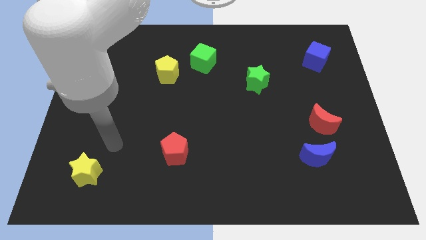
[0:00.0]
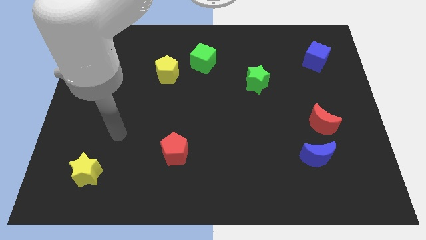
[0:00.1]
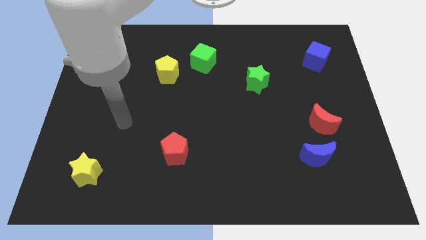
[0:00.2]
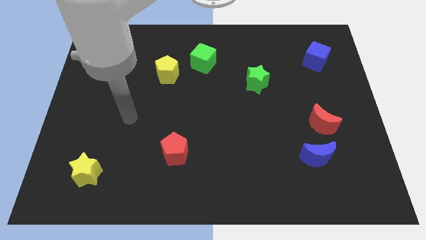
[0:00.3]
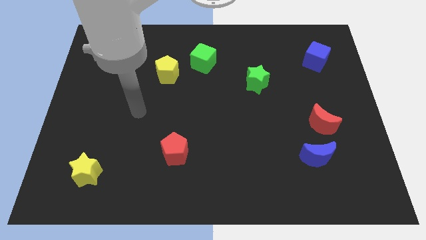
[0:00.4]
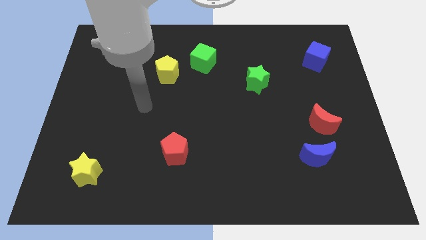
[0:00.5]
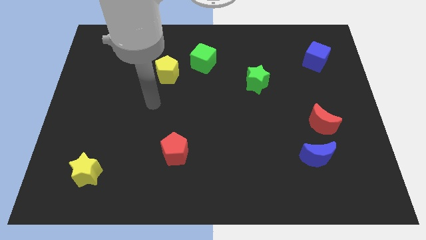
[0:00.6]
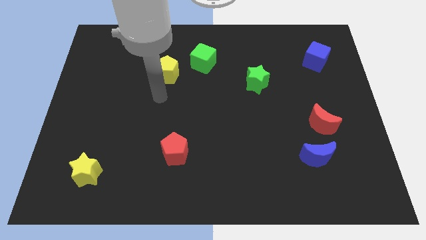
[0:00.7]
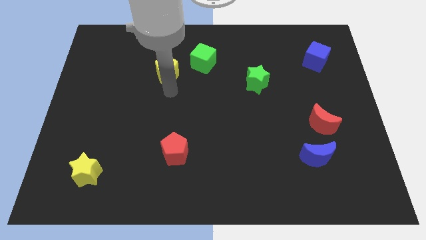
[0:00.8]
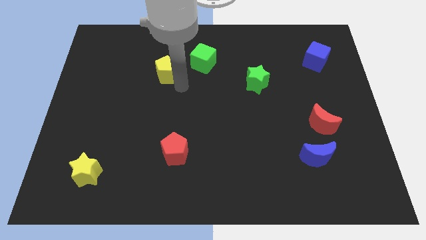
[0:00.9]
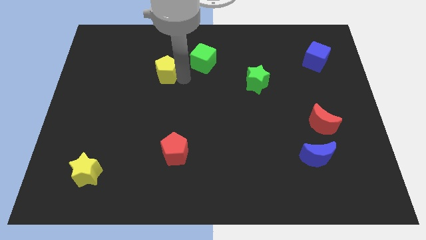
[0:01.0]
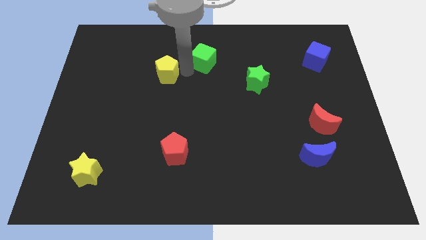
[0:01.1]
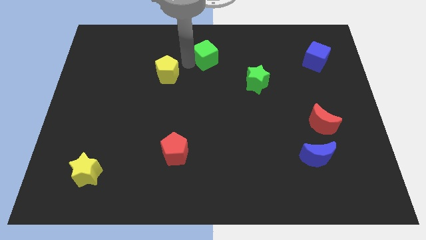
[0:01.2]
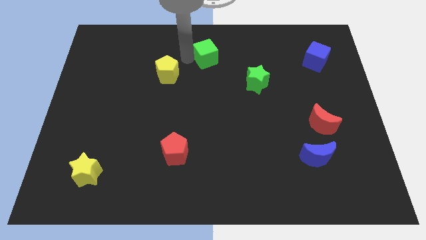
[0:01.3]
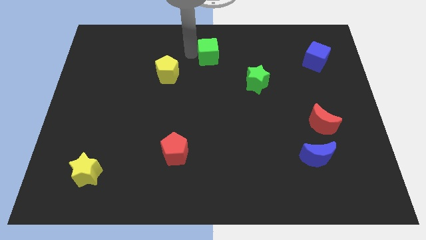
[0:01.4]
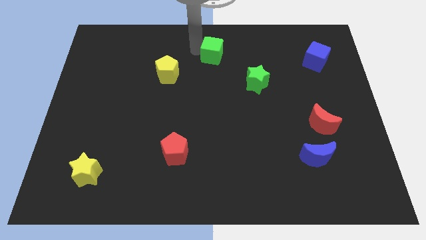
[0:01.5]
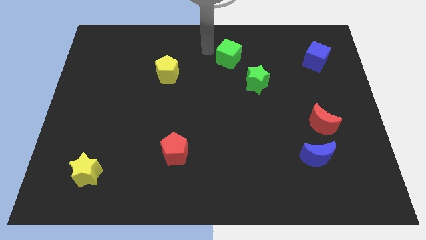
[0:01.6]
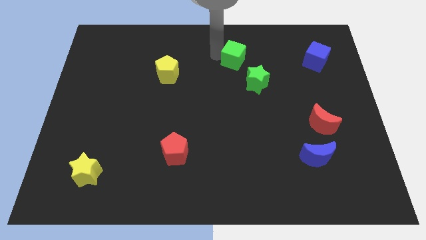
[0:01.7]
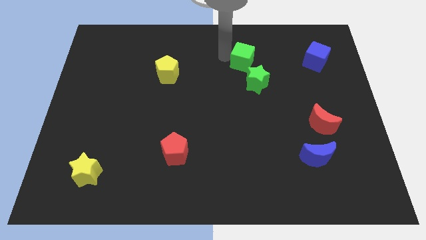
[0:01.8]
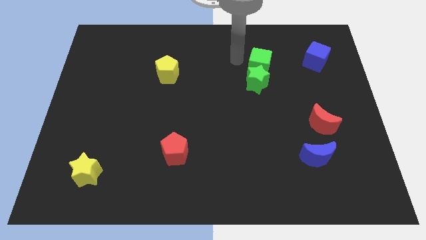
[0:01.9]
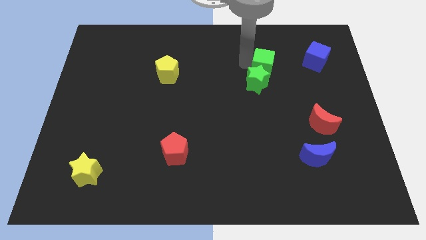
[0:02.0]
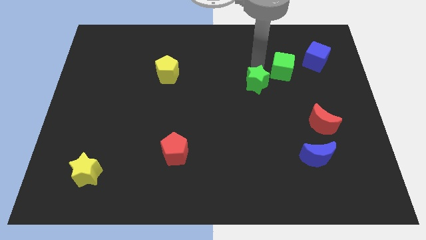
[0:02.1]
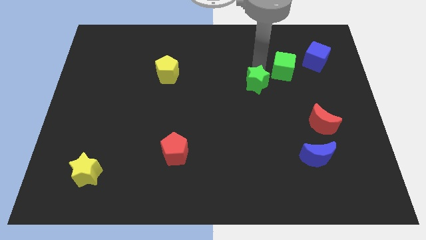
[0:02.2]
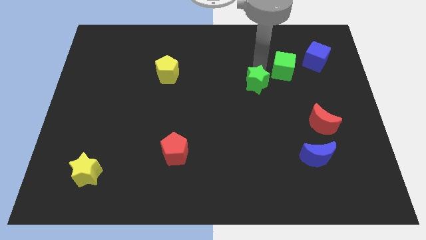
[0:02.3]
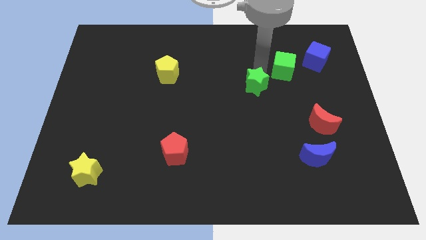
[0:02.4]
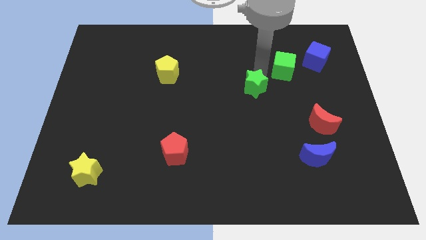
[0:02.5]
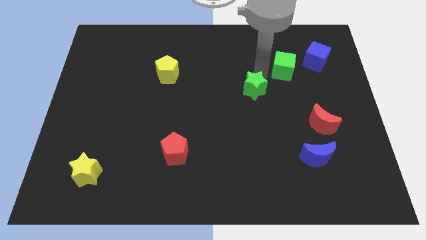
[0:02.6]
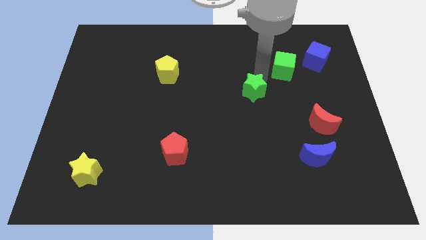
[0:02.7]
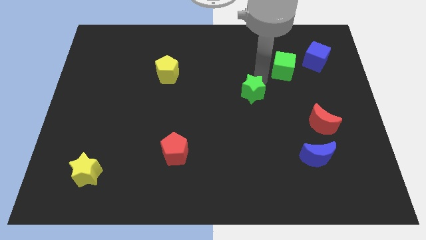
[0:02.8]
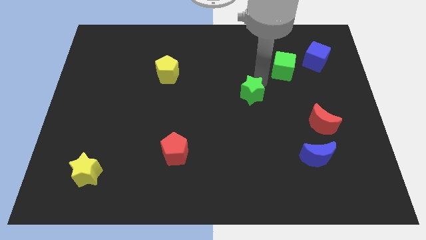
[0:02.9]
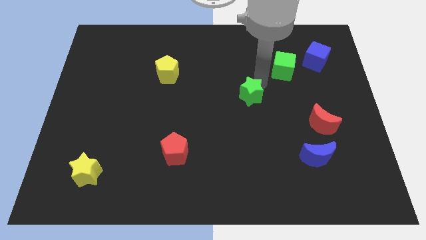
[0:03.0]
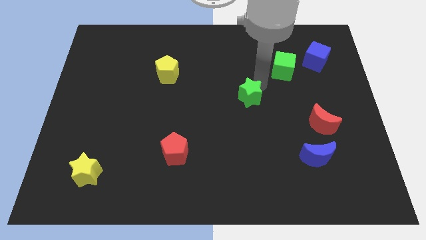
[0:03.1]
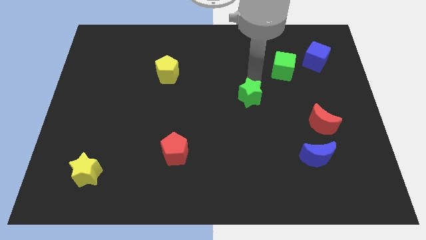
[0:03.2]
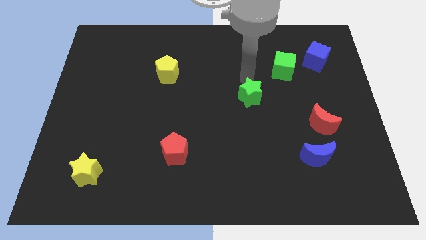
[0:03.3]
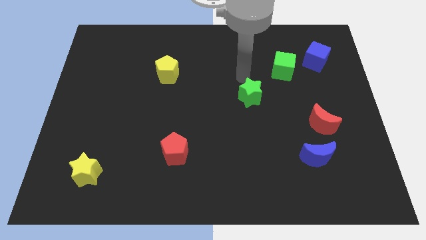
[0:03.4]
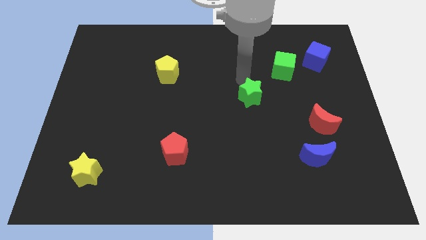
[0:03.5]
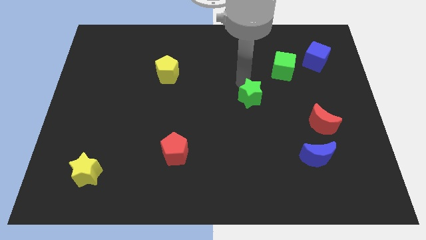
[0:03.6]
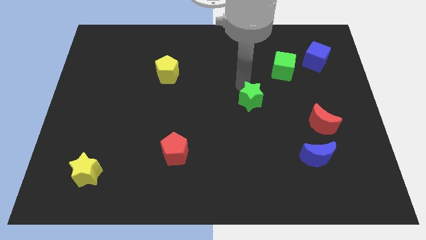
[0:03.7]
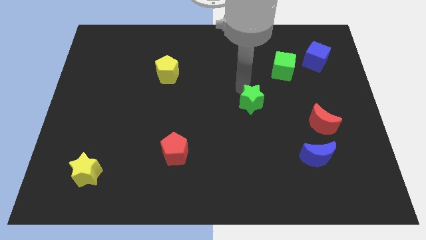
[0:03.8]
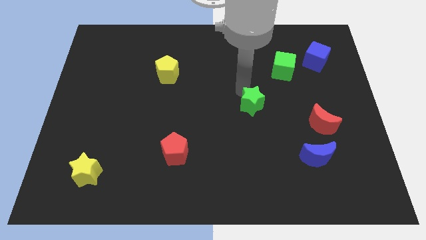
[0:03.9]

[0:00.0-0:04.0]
push the green star a little bit down

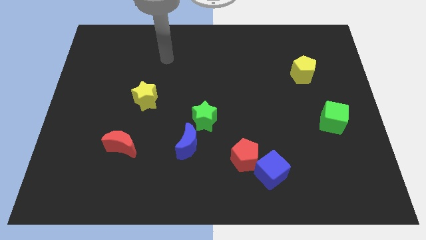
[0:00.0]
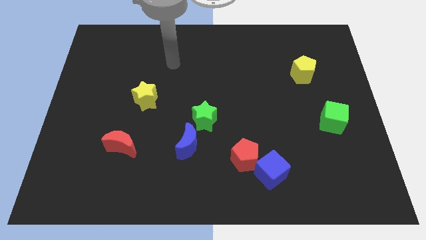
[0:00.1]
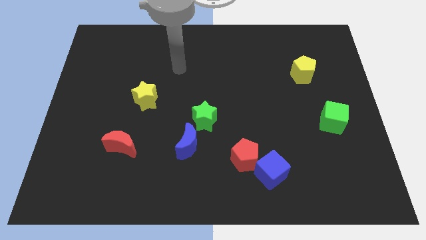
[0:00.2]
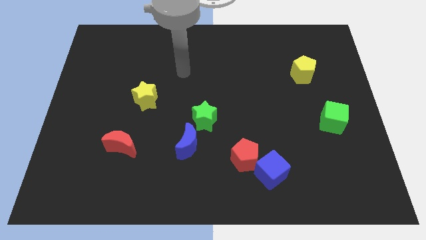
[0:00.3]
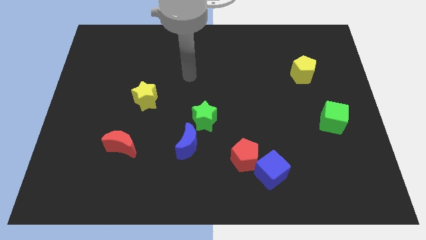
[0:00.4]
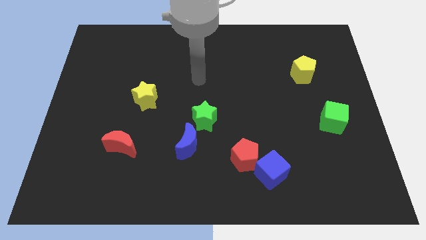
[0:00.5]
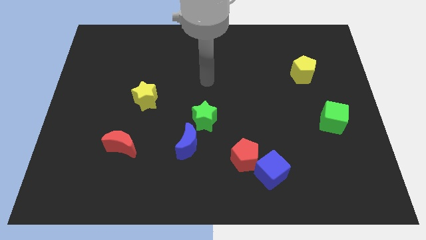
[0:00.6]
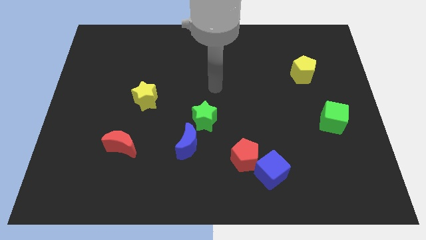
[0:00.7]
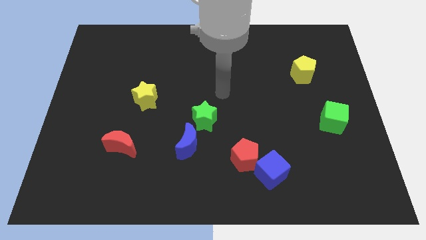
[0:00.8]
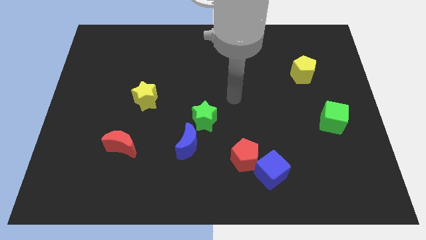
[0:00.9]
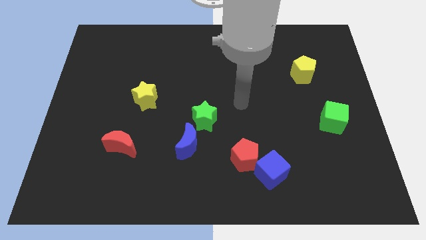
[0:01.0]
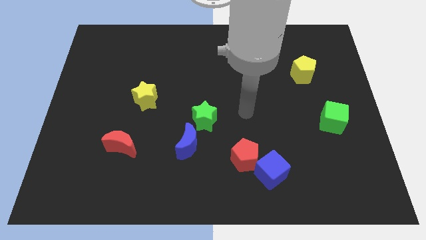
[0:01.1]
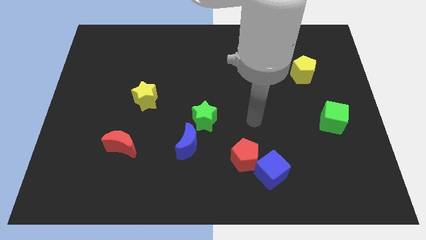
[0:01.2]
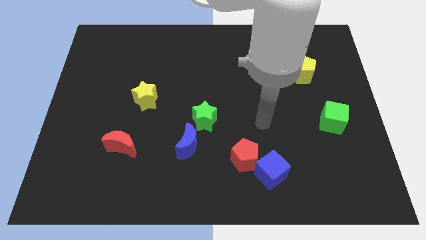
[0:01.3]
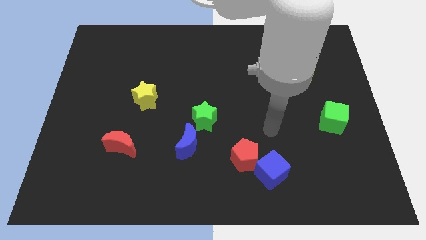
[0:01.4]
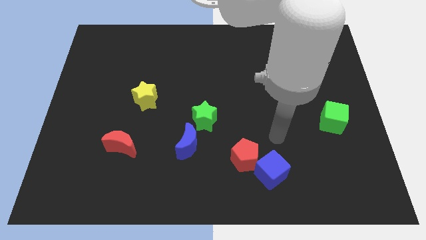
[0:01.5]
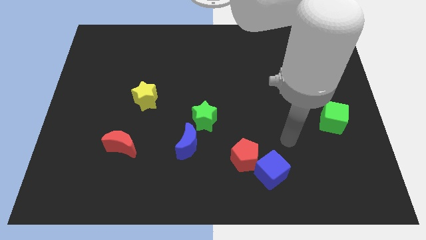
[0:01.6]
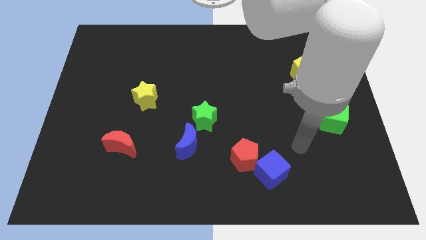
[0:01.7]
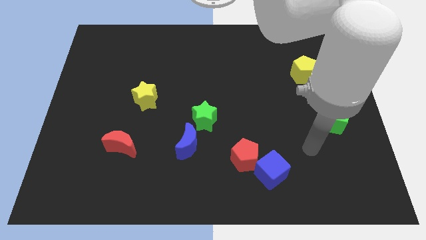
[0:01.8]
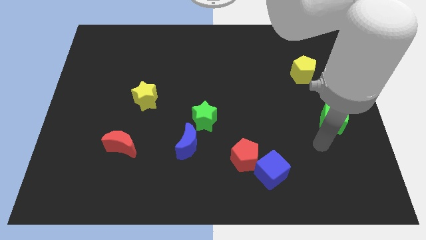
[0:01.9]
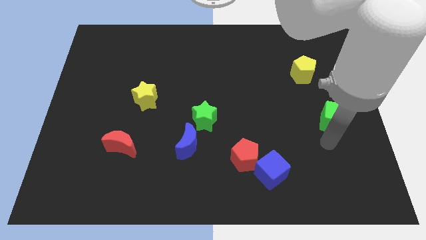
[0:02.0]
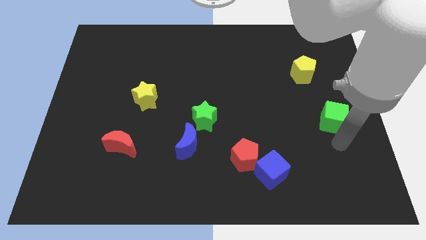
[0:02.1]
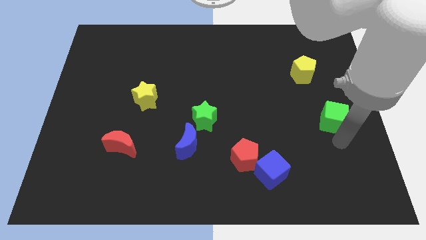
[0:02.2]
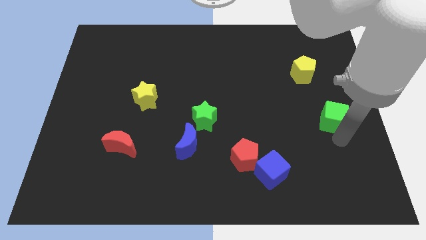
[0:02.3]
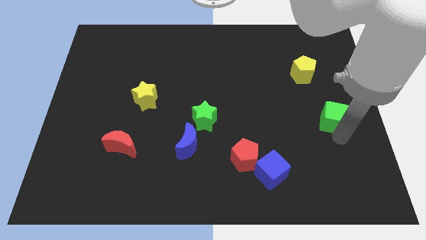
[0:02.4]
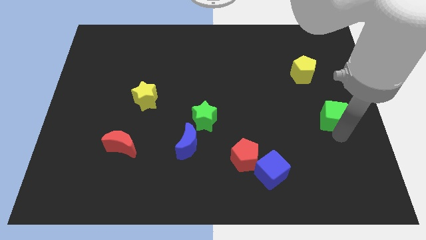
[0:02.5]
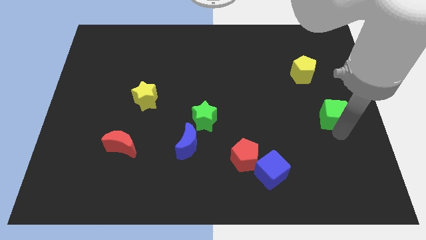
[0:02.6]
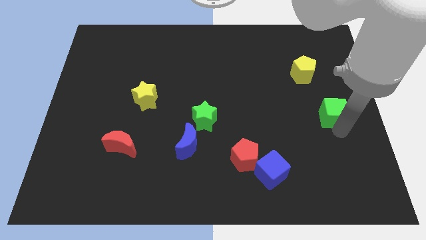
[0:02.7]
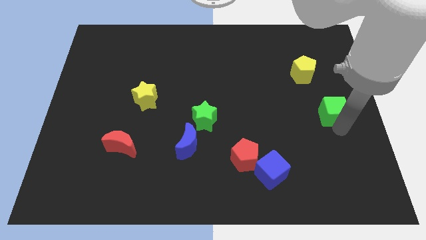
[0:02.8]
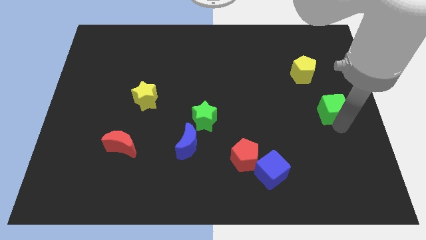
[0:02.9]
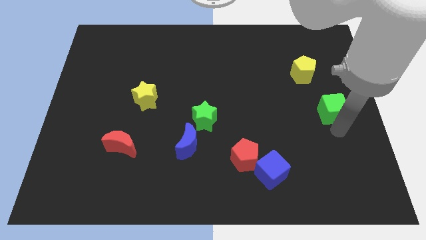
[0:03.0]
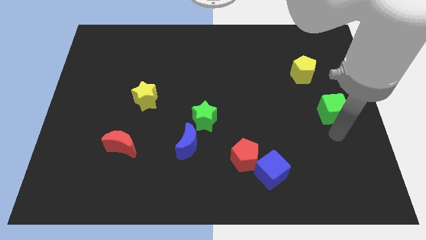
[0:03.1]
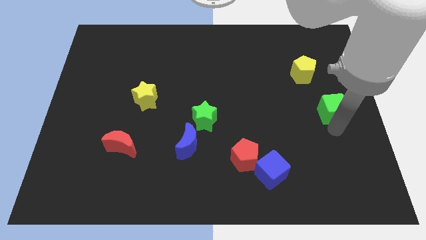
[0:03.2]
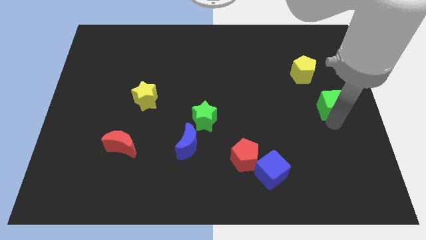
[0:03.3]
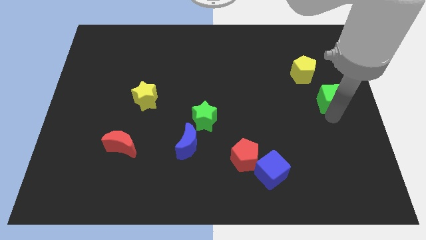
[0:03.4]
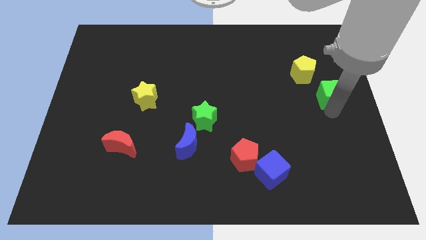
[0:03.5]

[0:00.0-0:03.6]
slightly slide the green cube upwards

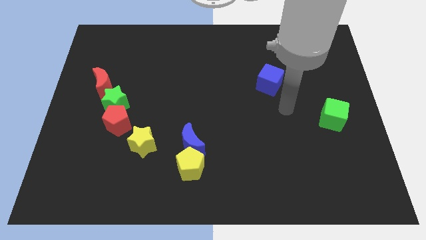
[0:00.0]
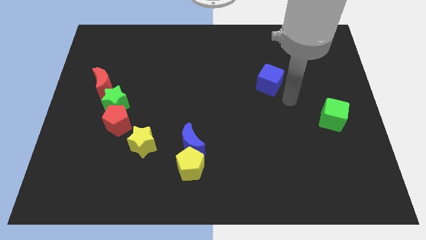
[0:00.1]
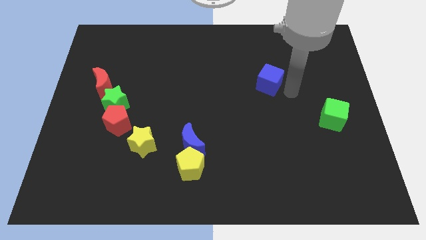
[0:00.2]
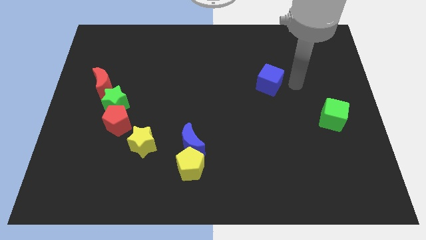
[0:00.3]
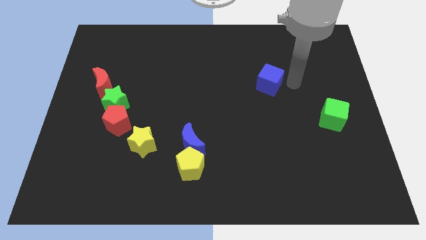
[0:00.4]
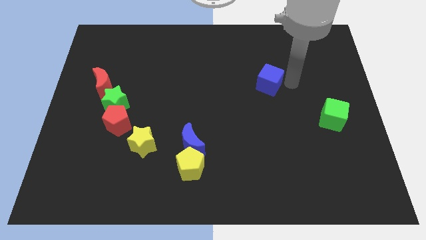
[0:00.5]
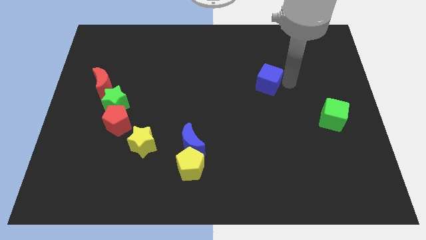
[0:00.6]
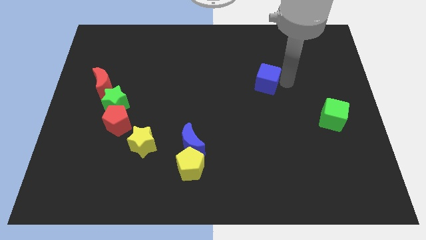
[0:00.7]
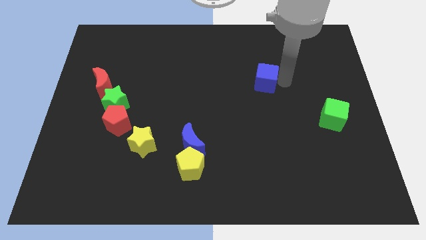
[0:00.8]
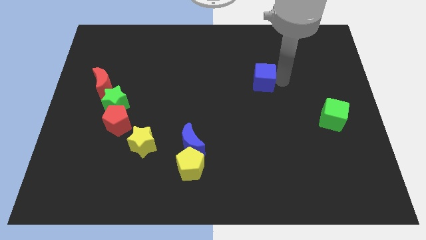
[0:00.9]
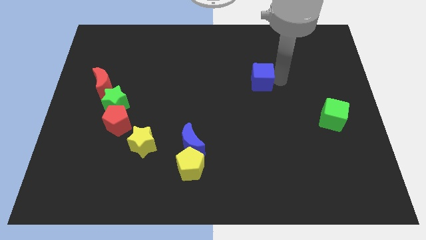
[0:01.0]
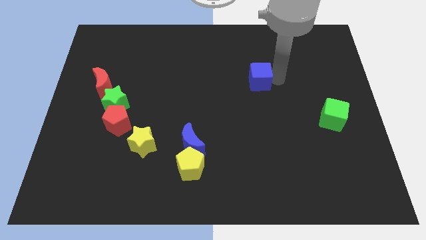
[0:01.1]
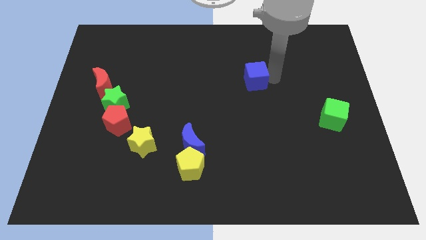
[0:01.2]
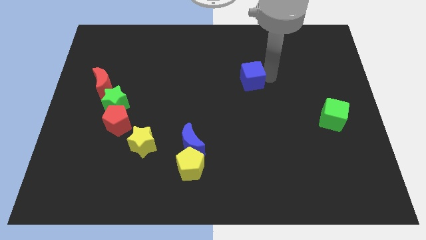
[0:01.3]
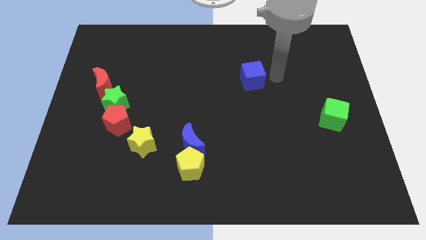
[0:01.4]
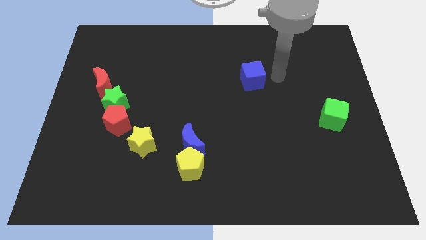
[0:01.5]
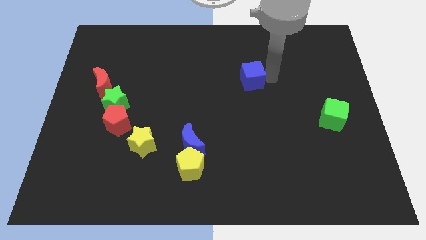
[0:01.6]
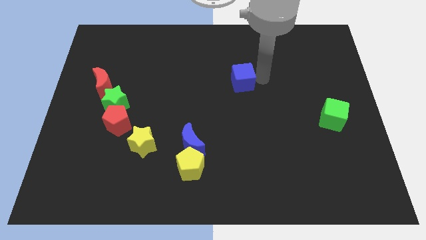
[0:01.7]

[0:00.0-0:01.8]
slightly push the blue cube left
